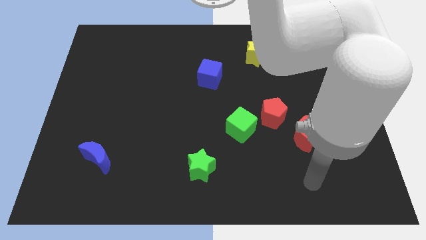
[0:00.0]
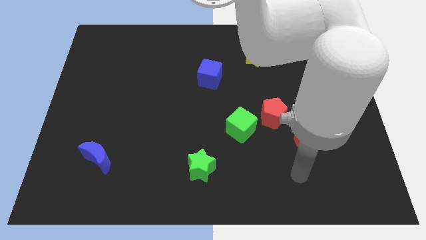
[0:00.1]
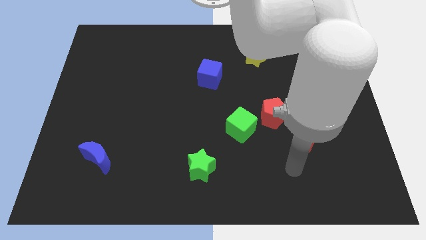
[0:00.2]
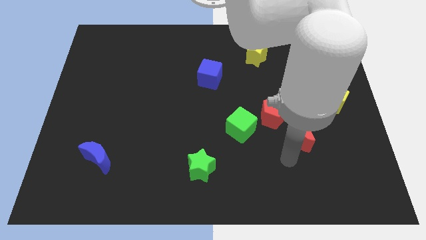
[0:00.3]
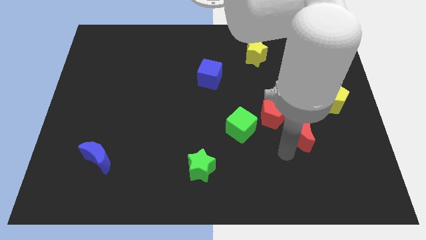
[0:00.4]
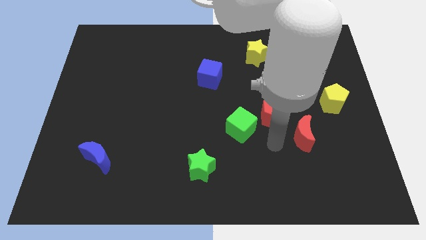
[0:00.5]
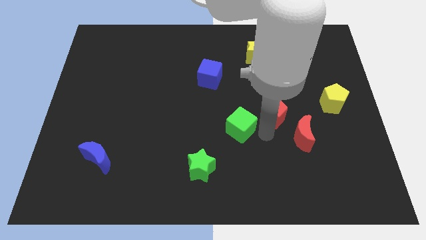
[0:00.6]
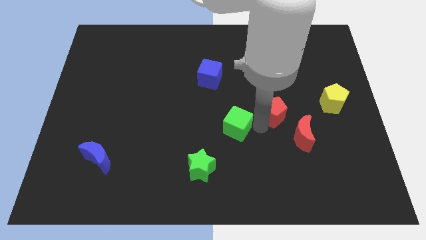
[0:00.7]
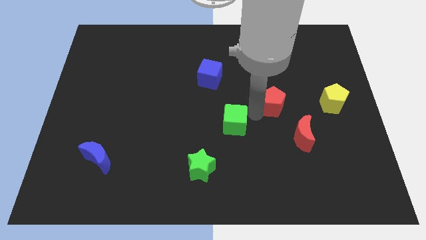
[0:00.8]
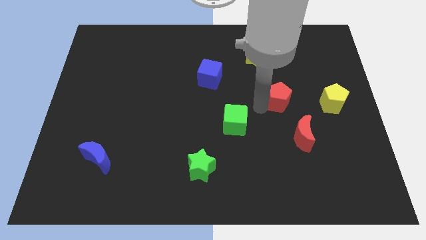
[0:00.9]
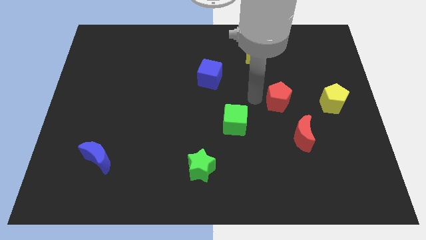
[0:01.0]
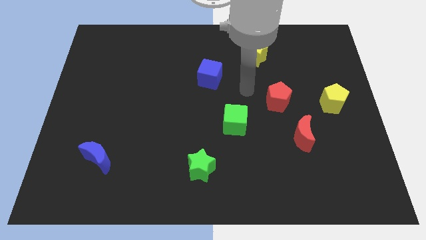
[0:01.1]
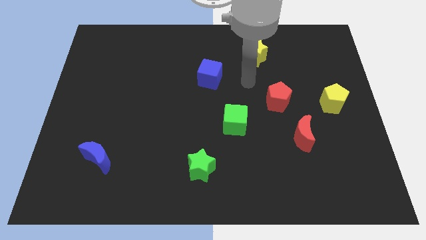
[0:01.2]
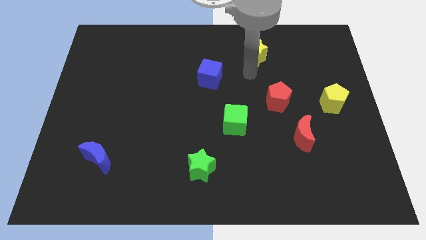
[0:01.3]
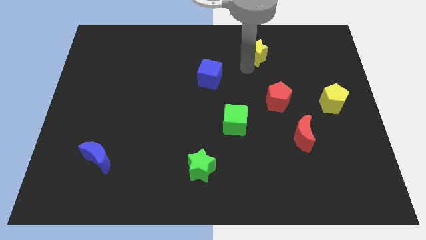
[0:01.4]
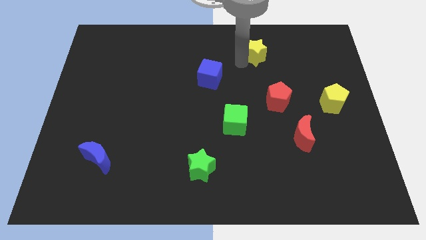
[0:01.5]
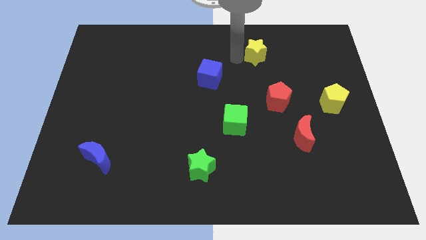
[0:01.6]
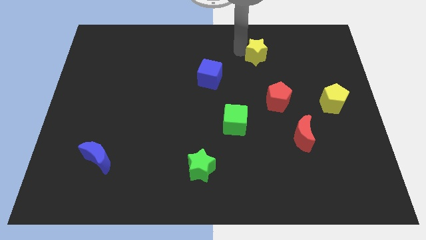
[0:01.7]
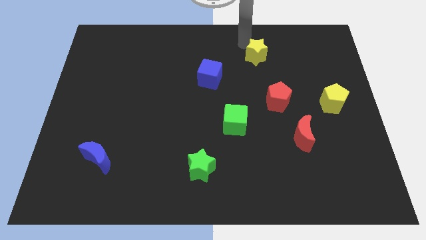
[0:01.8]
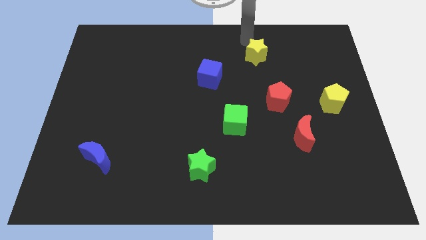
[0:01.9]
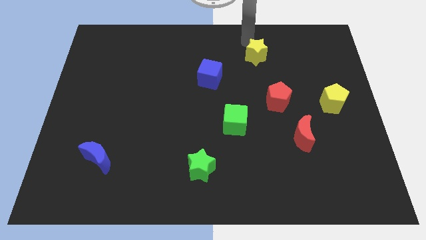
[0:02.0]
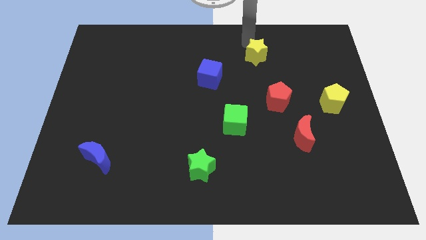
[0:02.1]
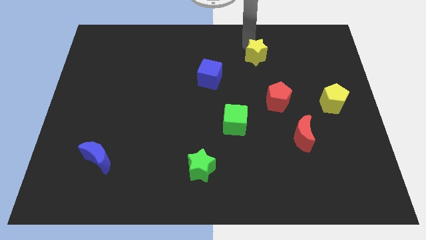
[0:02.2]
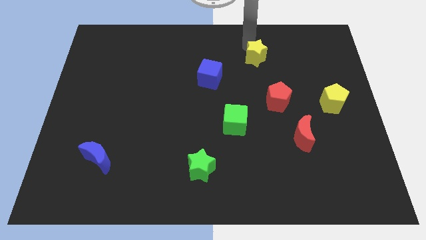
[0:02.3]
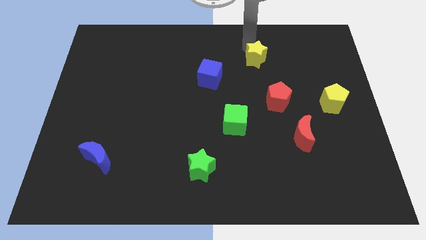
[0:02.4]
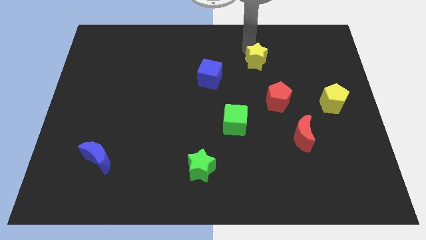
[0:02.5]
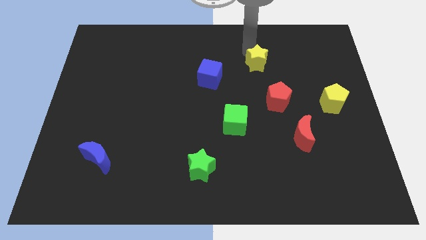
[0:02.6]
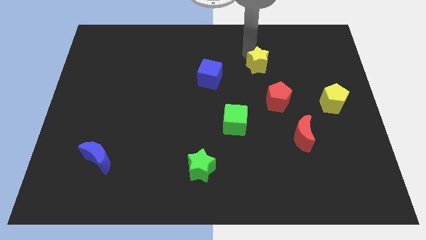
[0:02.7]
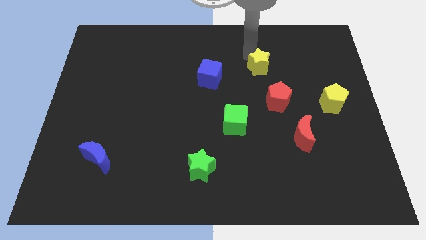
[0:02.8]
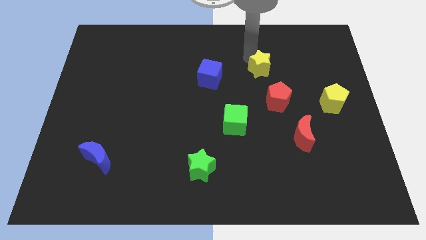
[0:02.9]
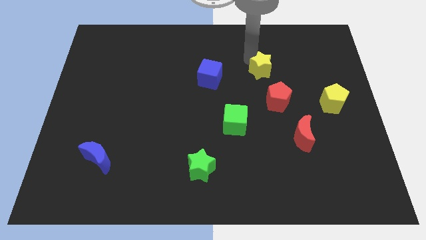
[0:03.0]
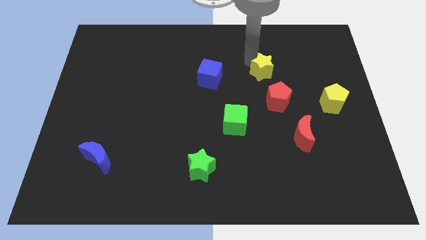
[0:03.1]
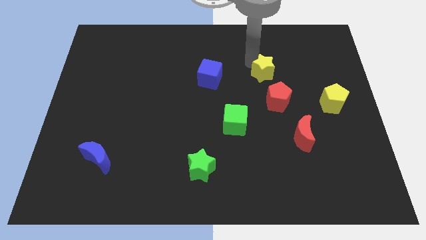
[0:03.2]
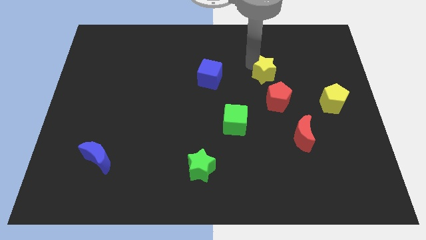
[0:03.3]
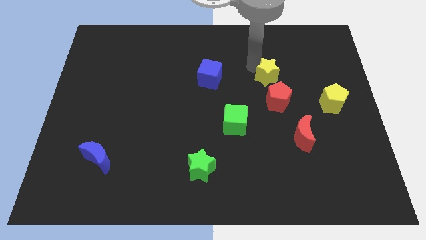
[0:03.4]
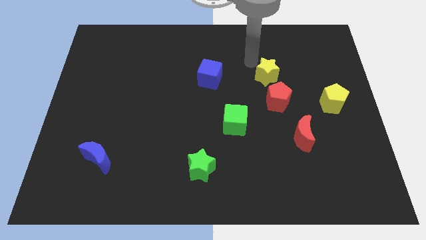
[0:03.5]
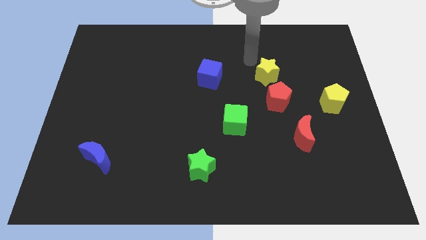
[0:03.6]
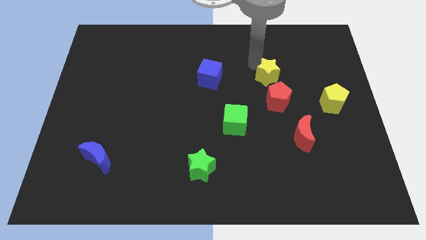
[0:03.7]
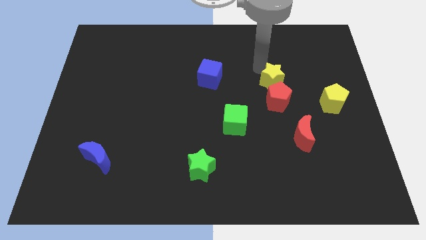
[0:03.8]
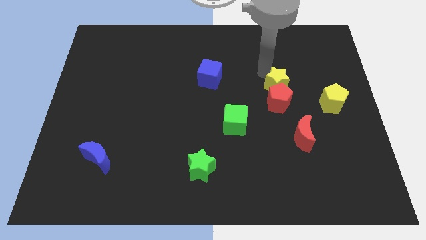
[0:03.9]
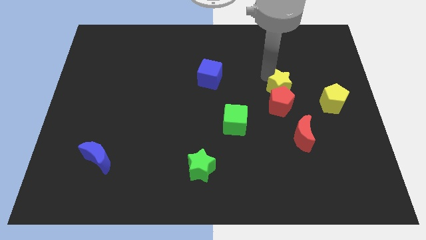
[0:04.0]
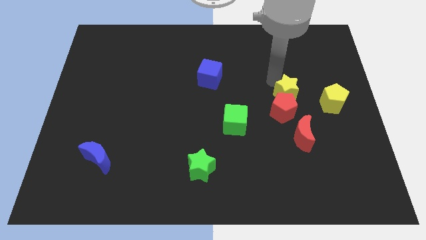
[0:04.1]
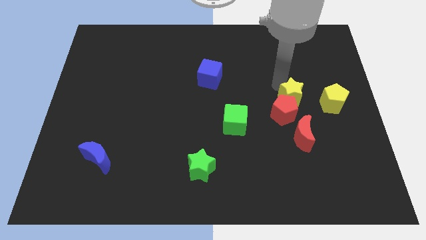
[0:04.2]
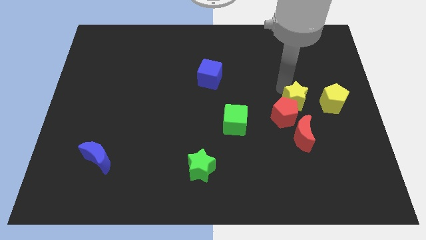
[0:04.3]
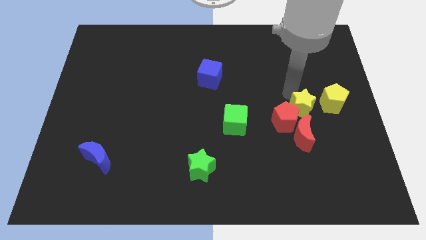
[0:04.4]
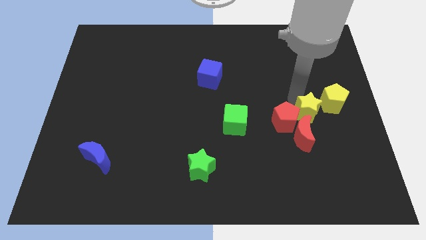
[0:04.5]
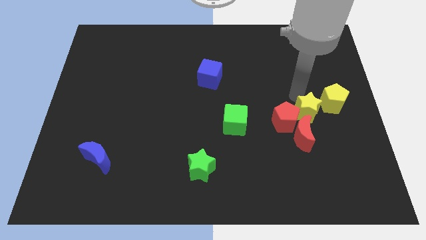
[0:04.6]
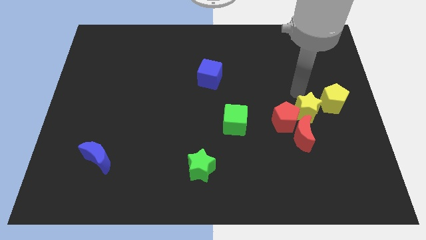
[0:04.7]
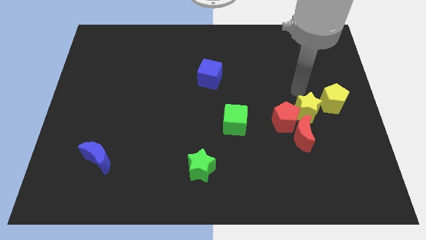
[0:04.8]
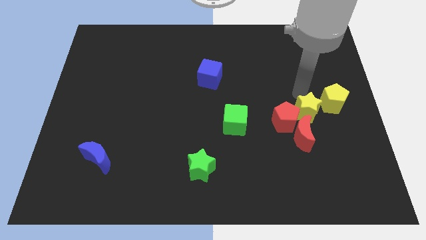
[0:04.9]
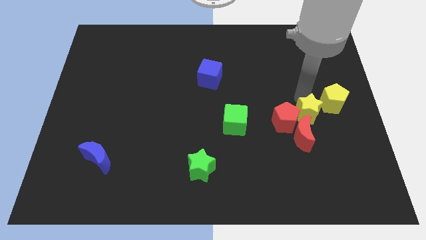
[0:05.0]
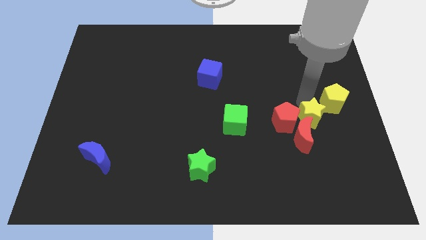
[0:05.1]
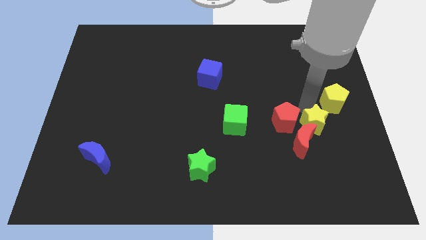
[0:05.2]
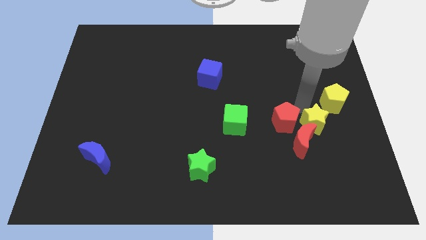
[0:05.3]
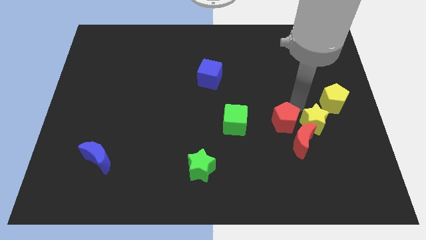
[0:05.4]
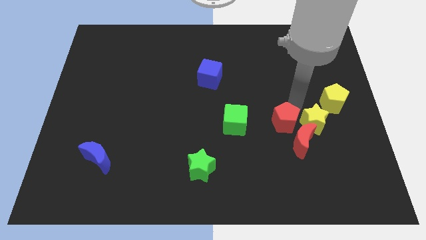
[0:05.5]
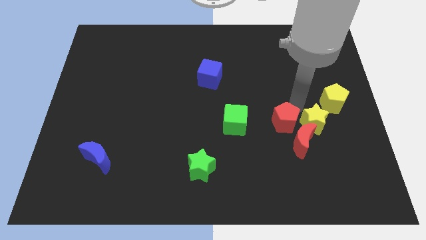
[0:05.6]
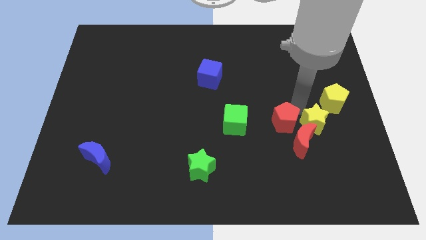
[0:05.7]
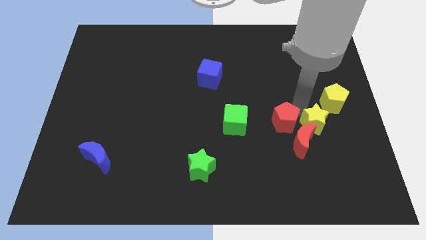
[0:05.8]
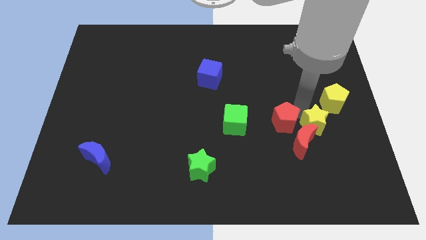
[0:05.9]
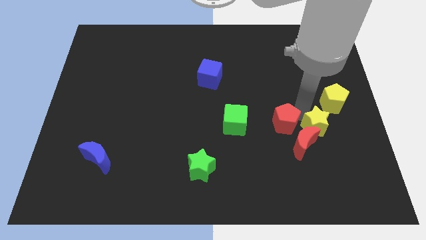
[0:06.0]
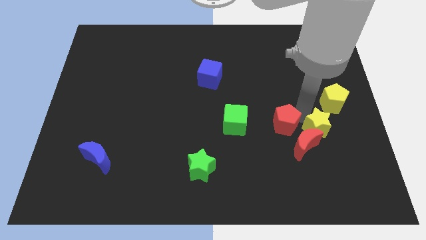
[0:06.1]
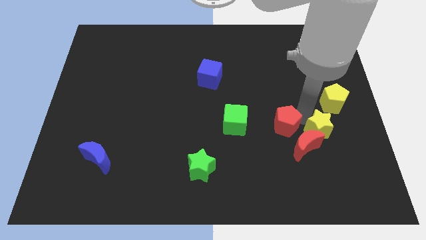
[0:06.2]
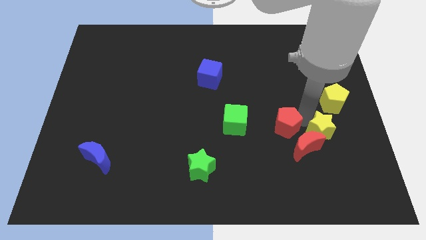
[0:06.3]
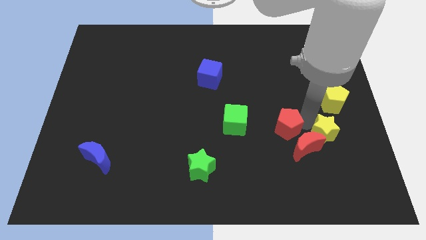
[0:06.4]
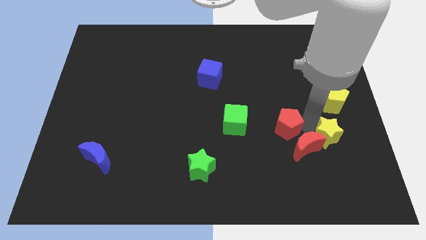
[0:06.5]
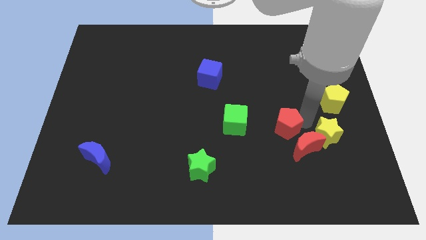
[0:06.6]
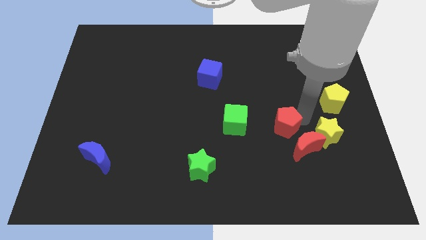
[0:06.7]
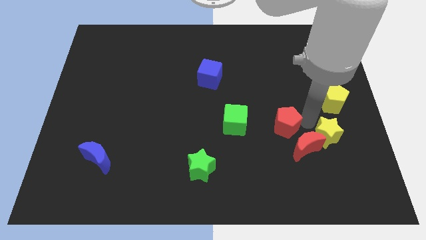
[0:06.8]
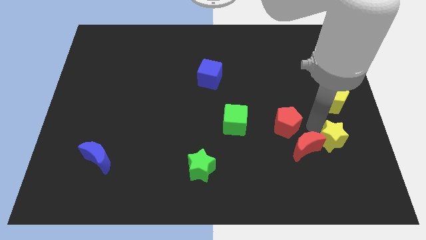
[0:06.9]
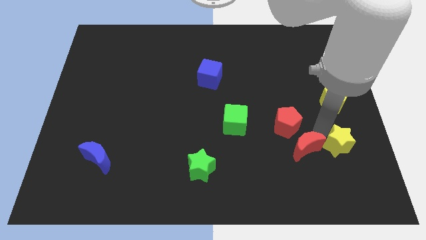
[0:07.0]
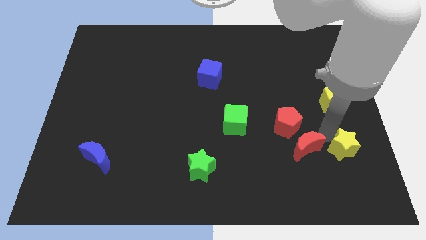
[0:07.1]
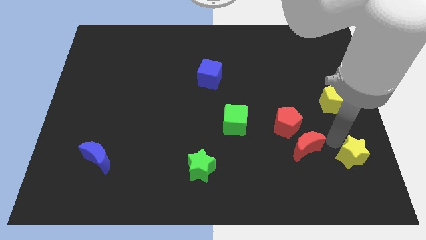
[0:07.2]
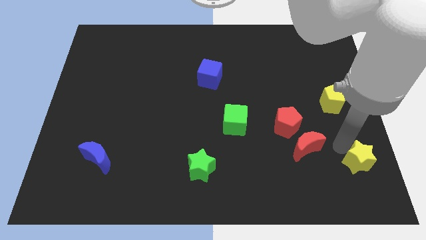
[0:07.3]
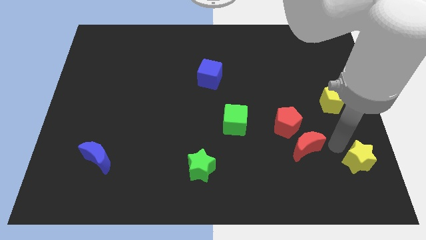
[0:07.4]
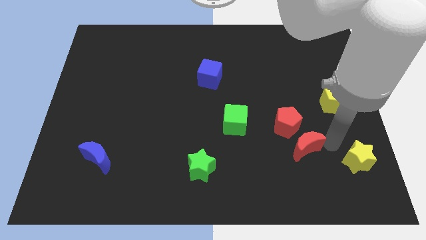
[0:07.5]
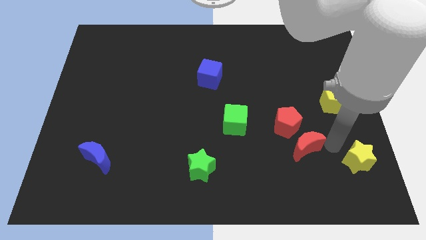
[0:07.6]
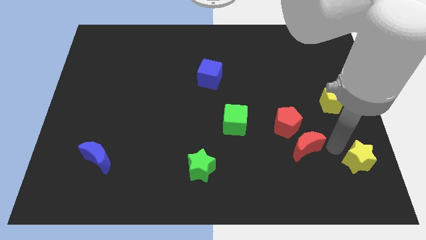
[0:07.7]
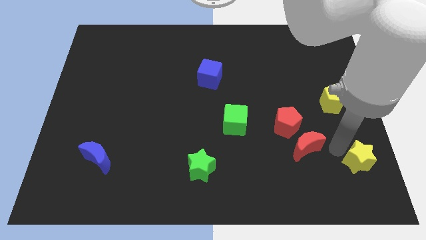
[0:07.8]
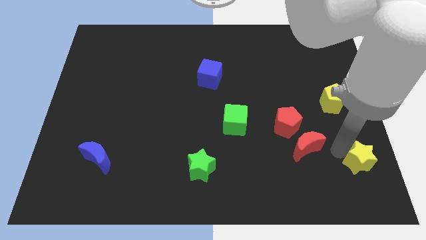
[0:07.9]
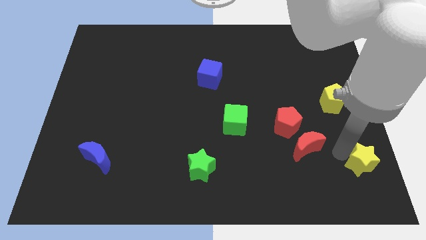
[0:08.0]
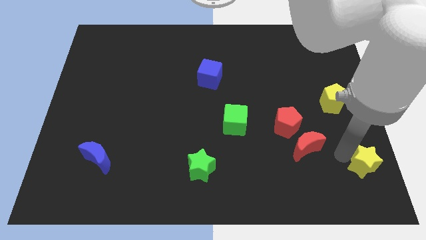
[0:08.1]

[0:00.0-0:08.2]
push the yellow star to the bottom right
